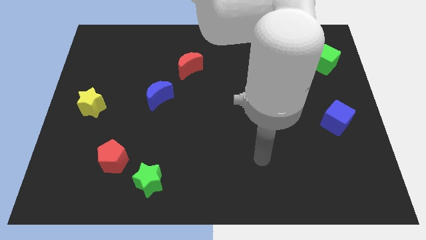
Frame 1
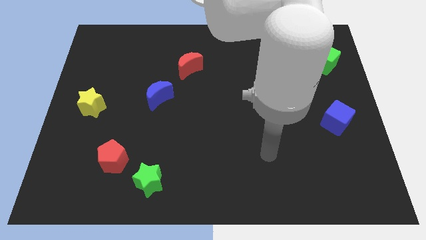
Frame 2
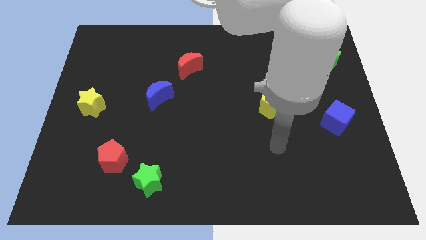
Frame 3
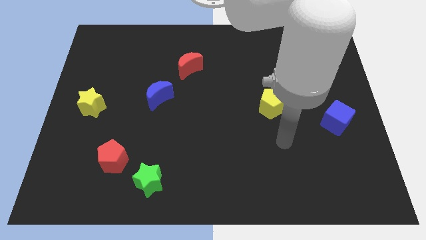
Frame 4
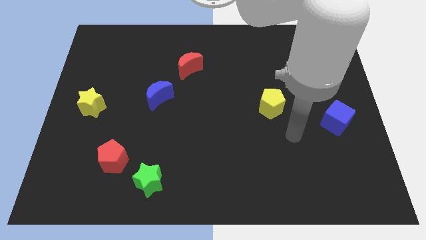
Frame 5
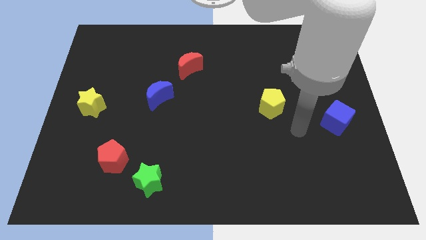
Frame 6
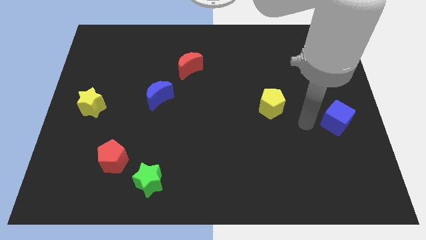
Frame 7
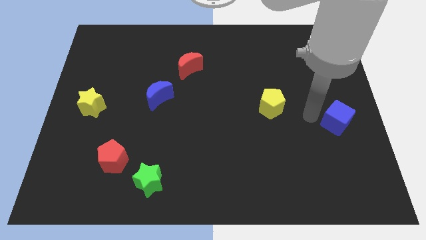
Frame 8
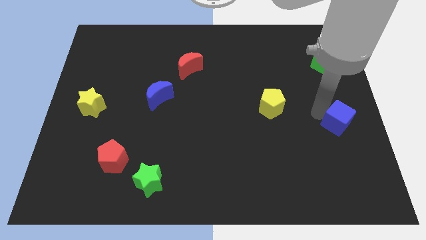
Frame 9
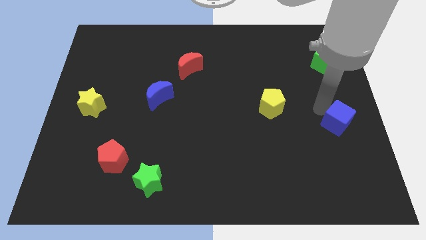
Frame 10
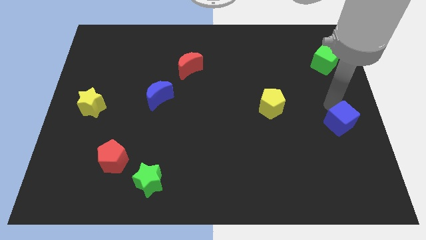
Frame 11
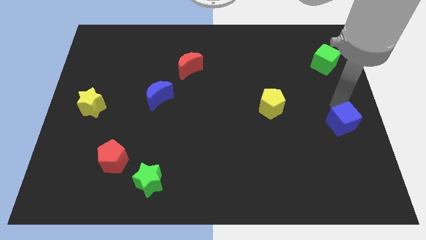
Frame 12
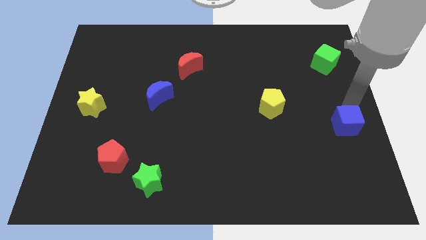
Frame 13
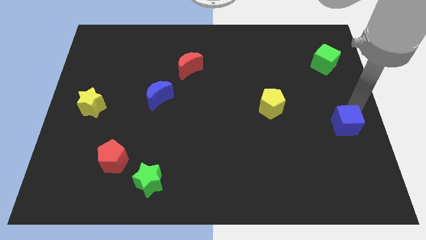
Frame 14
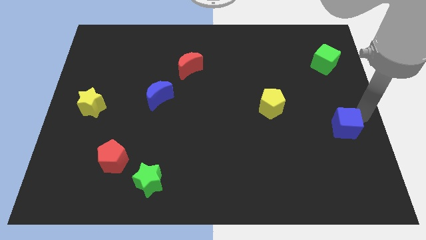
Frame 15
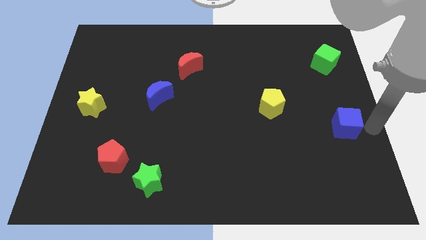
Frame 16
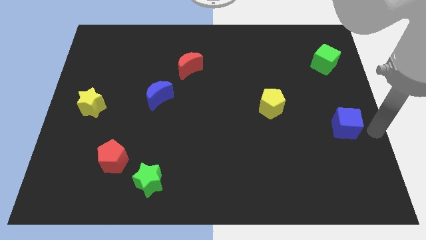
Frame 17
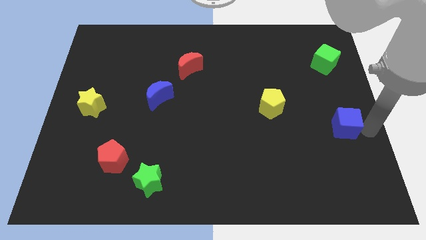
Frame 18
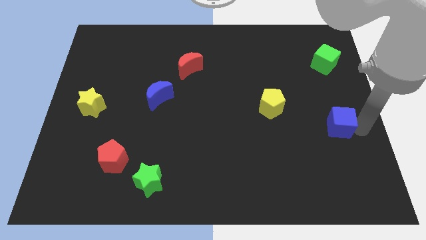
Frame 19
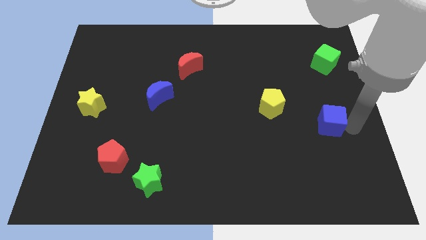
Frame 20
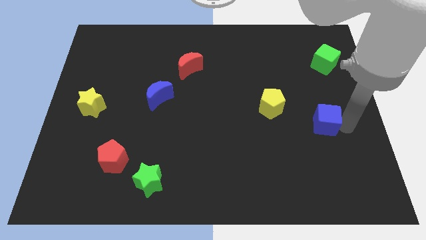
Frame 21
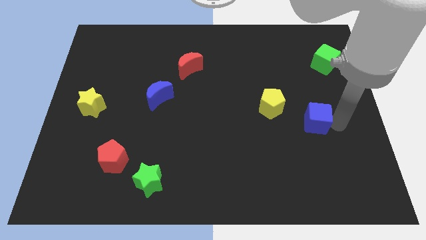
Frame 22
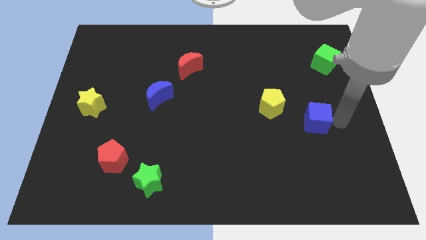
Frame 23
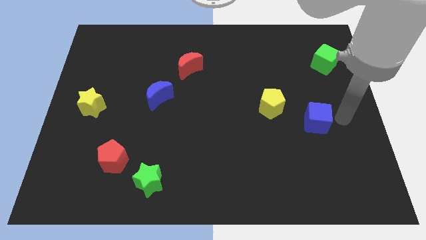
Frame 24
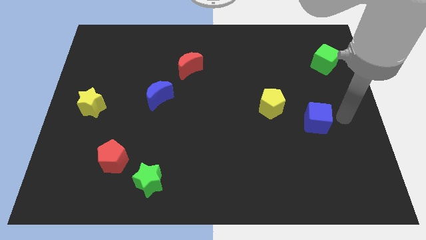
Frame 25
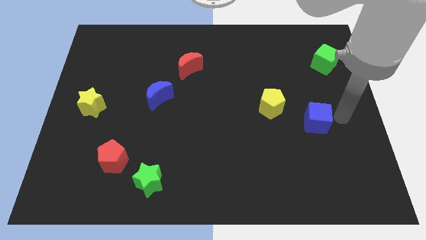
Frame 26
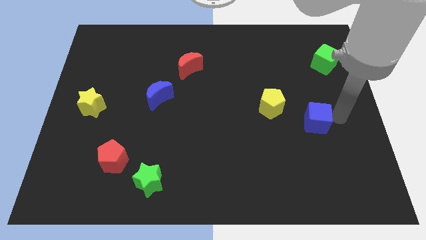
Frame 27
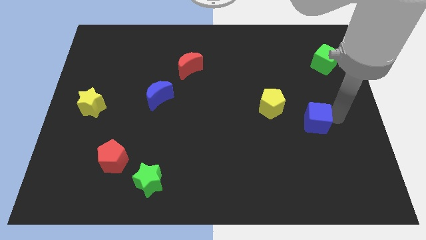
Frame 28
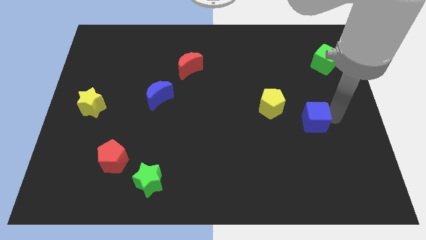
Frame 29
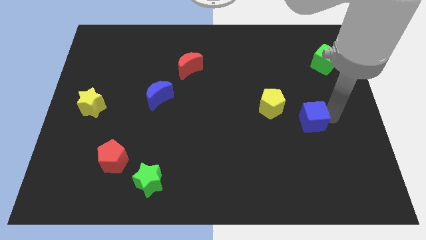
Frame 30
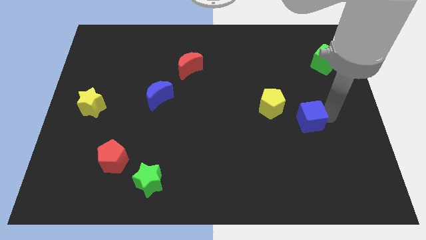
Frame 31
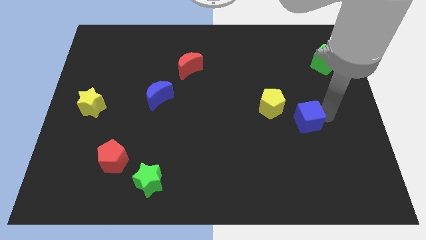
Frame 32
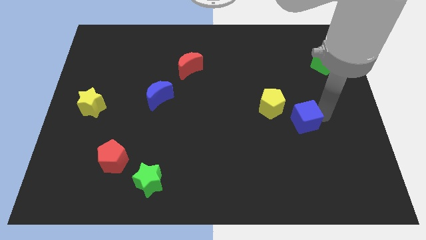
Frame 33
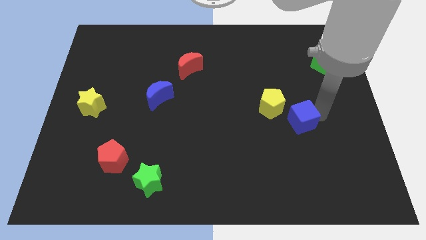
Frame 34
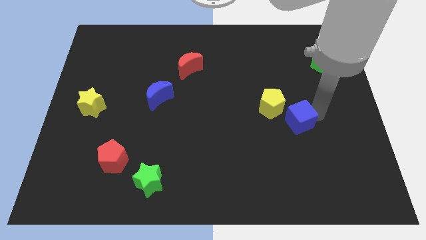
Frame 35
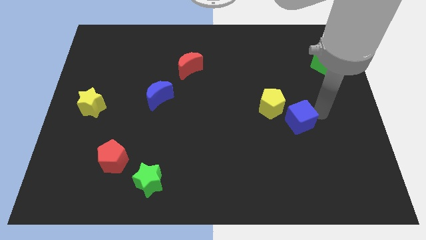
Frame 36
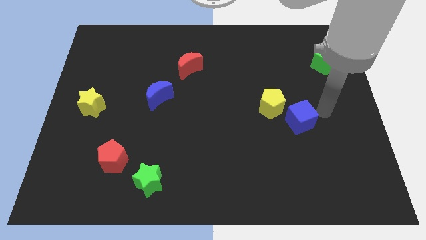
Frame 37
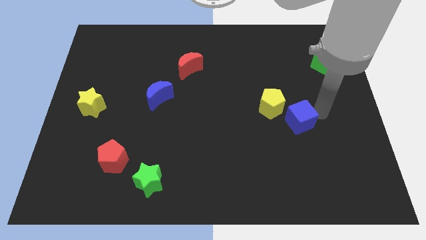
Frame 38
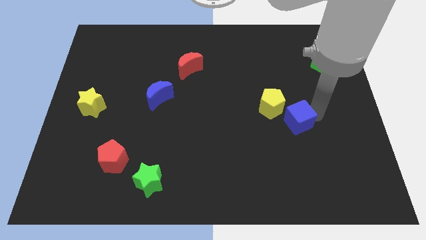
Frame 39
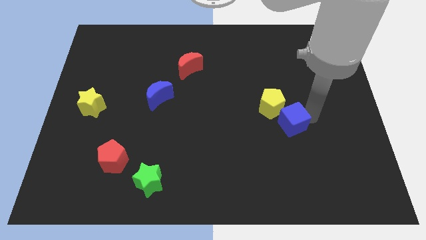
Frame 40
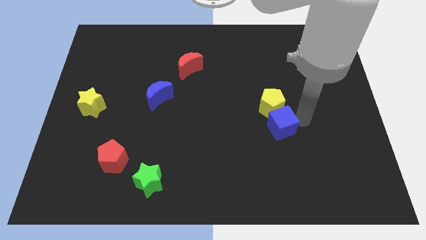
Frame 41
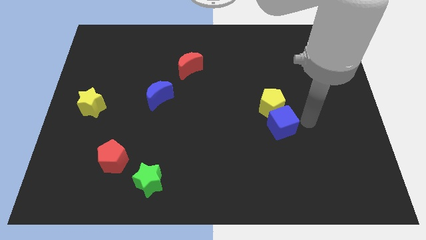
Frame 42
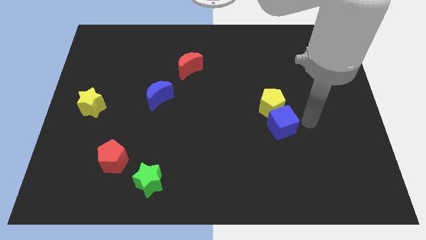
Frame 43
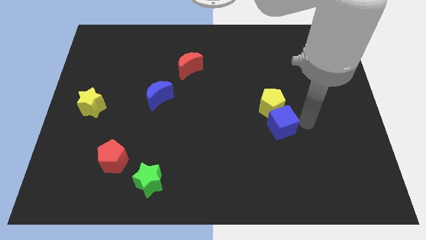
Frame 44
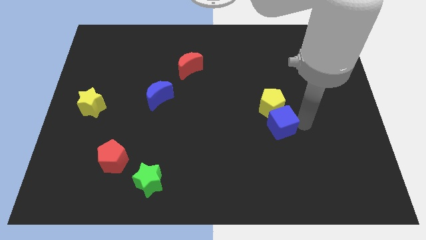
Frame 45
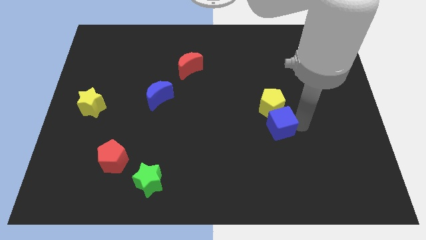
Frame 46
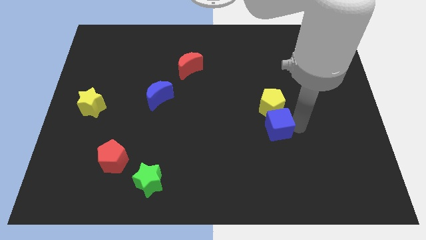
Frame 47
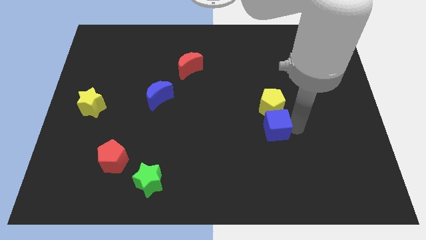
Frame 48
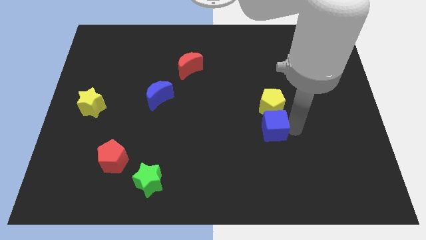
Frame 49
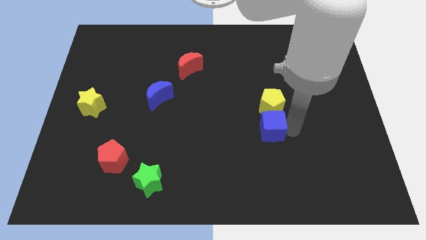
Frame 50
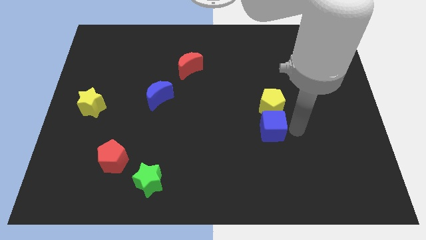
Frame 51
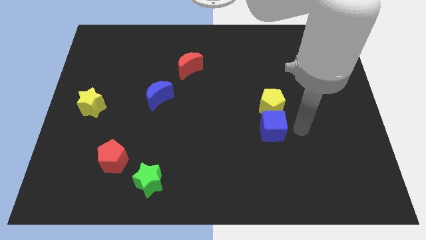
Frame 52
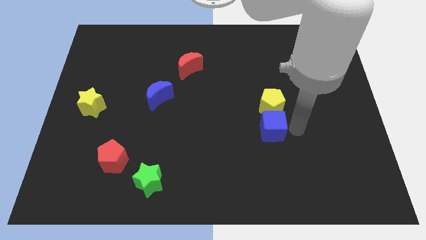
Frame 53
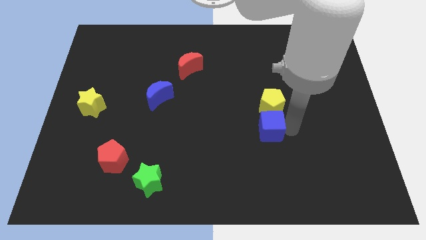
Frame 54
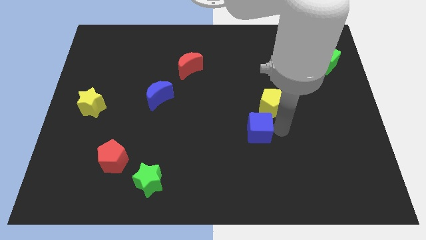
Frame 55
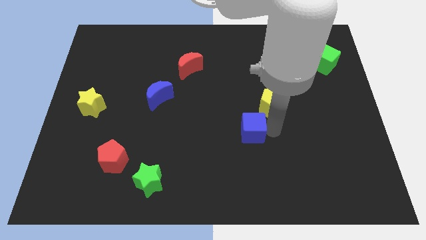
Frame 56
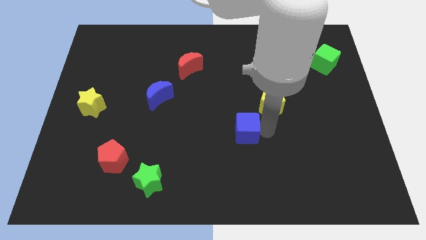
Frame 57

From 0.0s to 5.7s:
move the blue cube left

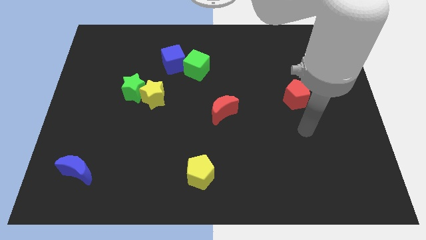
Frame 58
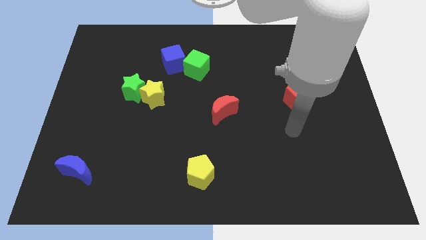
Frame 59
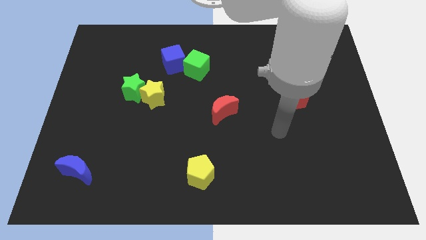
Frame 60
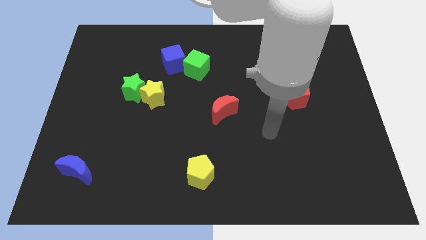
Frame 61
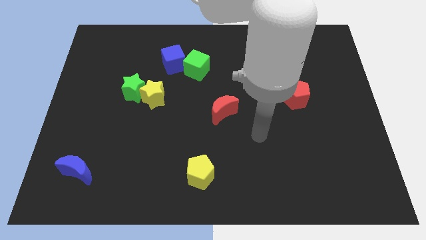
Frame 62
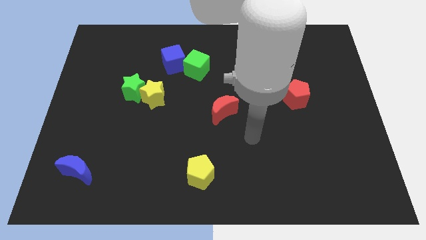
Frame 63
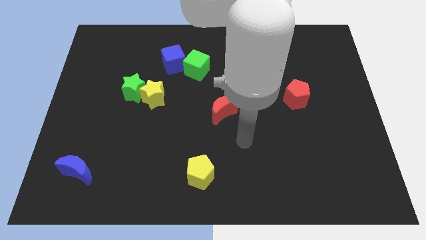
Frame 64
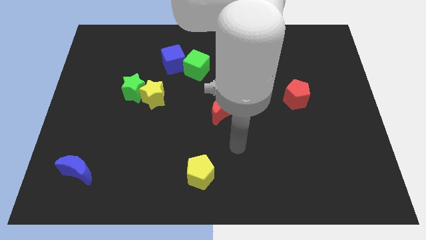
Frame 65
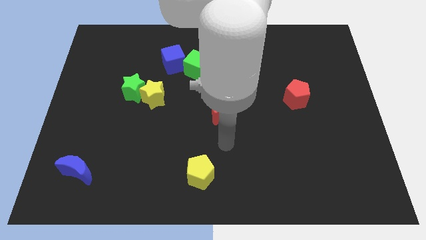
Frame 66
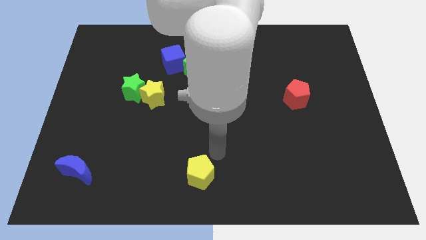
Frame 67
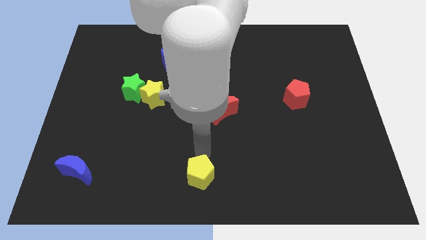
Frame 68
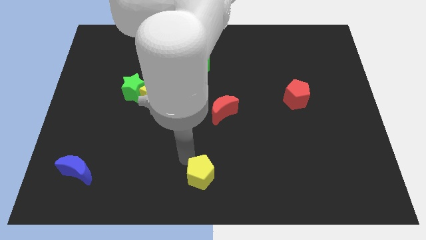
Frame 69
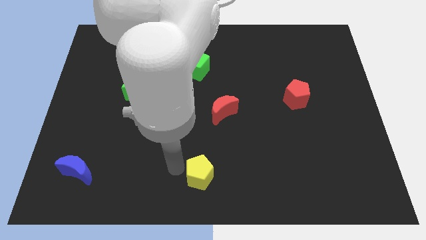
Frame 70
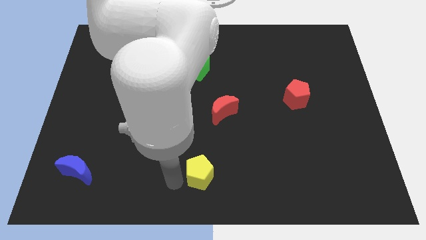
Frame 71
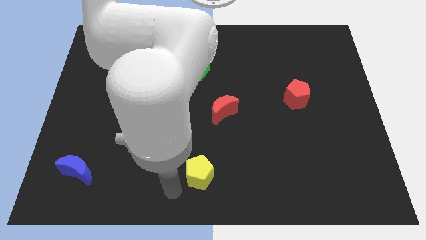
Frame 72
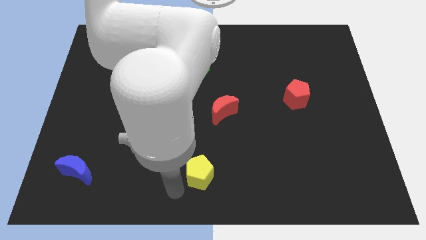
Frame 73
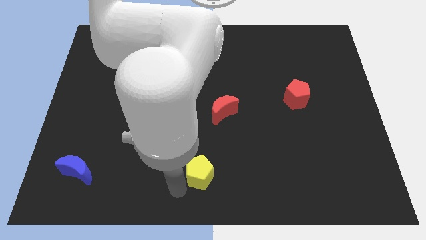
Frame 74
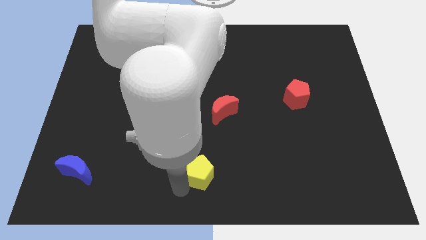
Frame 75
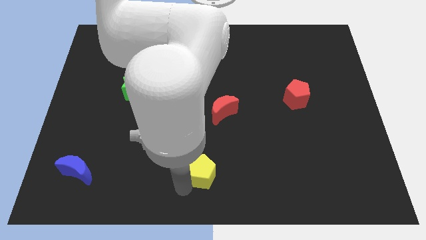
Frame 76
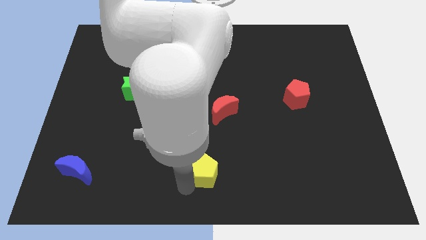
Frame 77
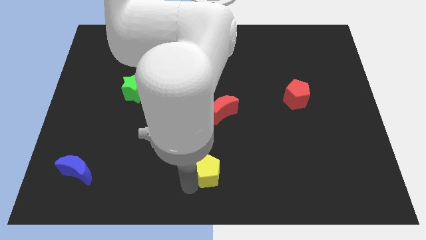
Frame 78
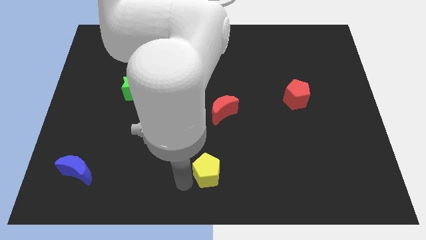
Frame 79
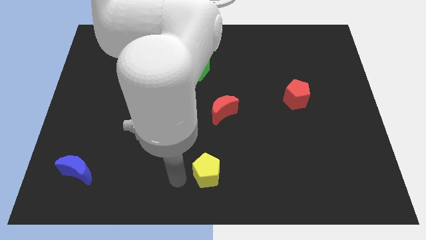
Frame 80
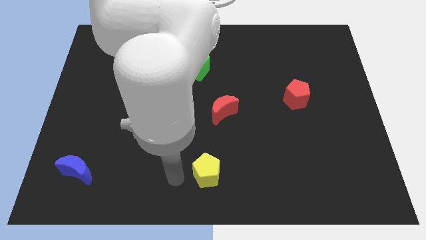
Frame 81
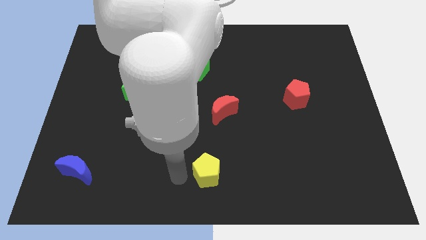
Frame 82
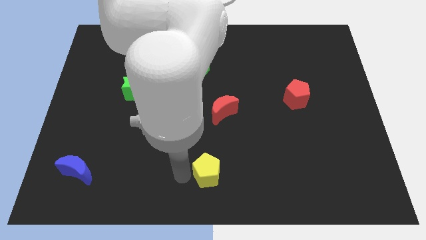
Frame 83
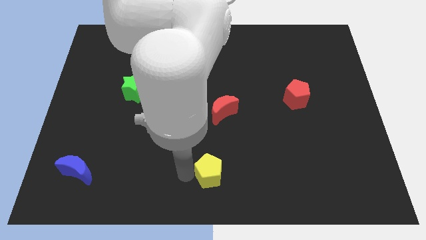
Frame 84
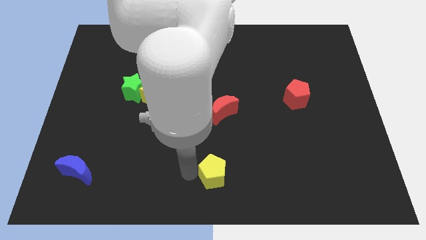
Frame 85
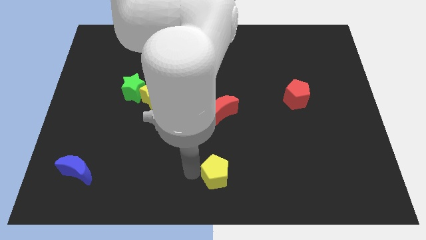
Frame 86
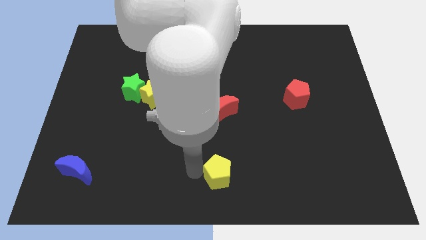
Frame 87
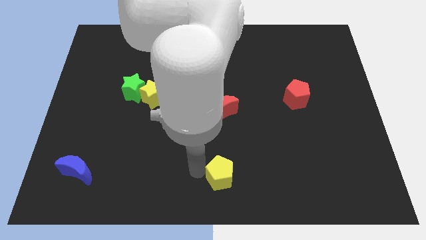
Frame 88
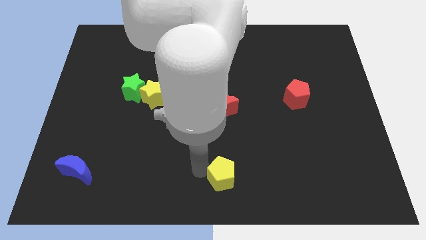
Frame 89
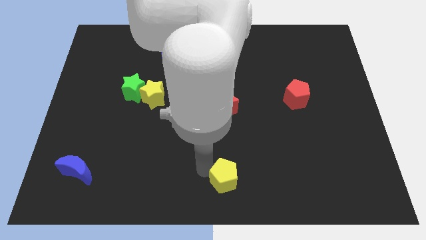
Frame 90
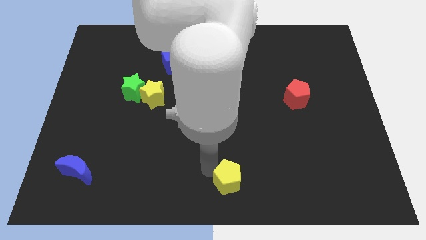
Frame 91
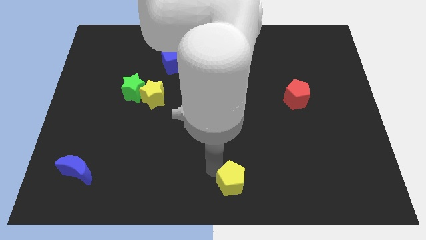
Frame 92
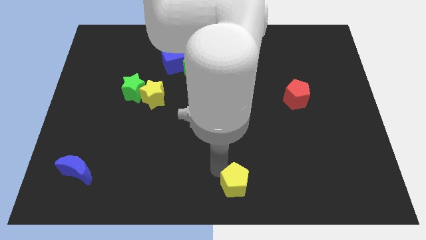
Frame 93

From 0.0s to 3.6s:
slide the yellow pentagon right slightly
